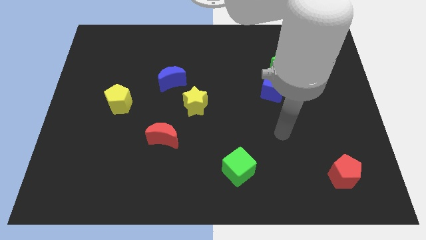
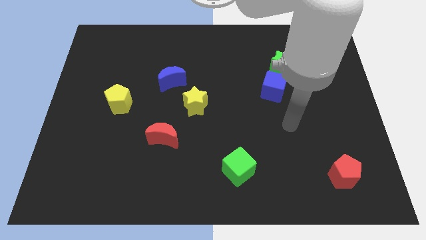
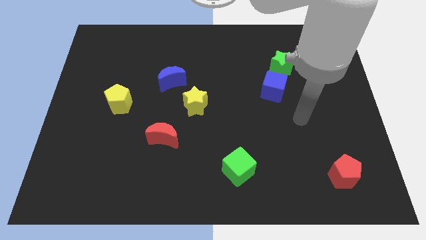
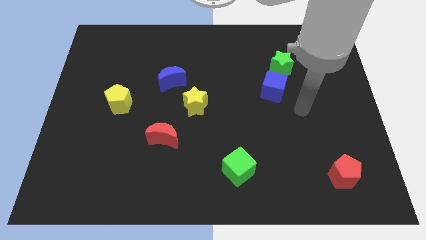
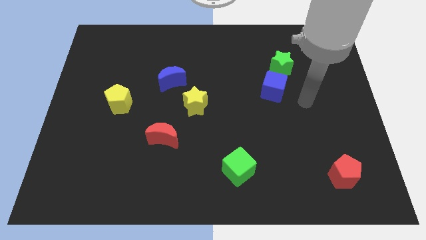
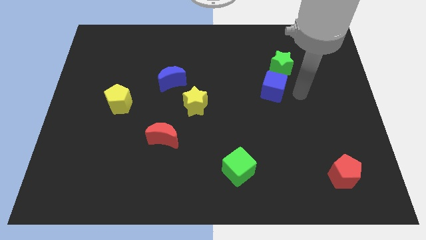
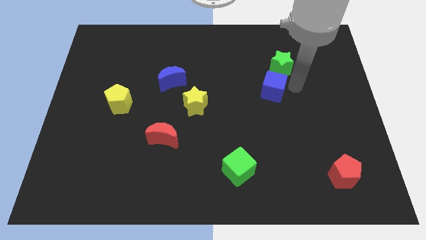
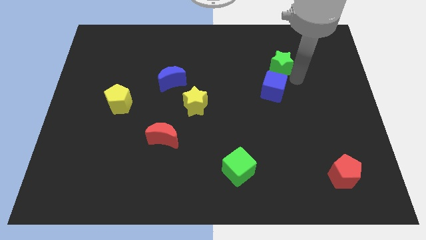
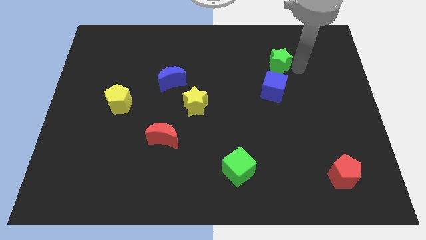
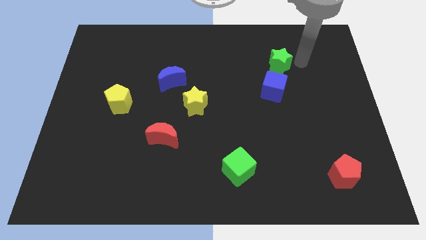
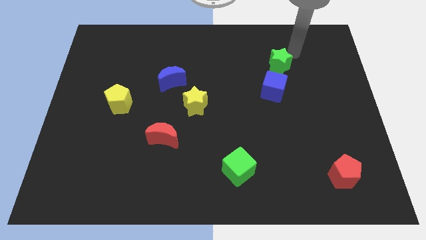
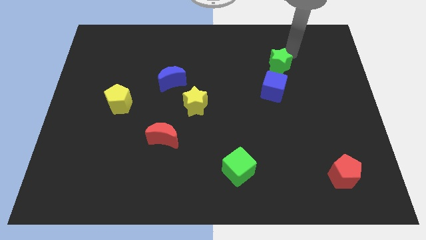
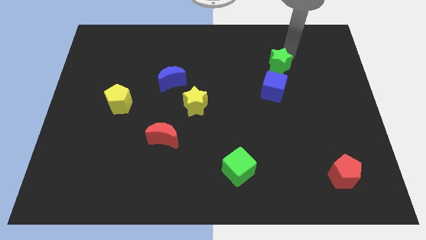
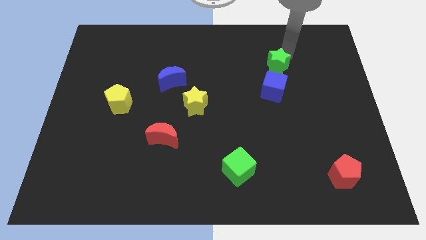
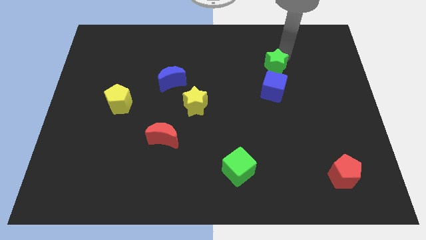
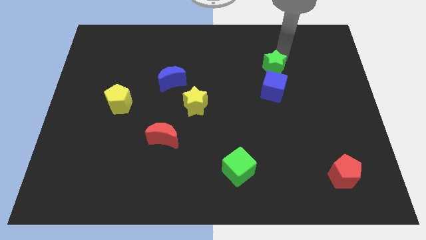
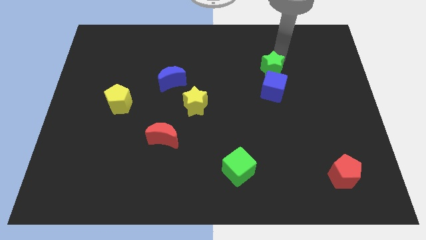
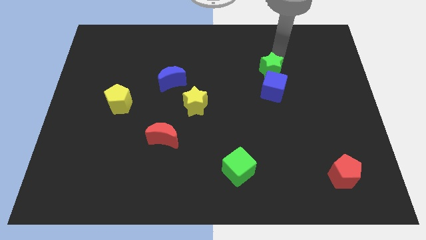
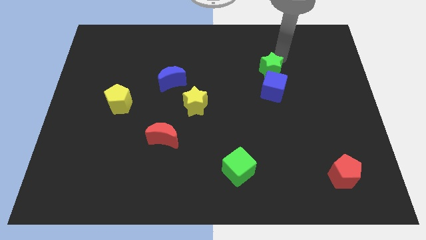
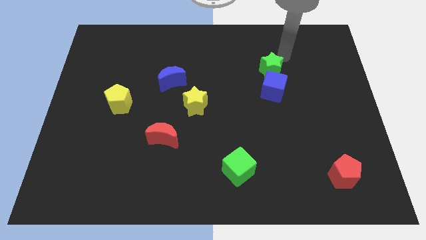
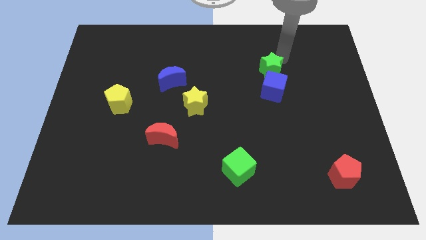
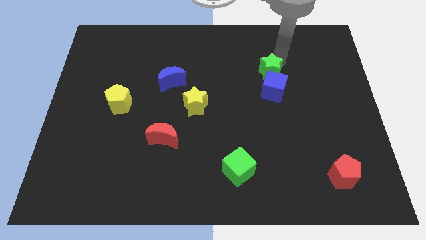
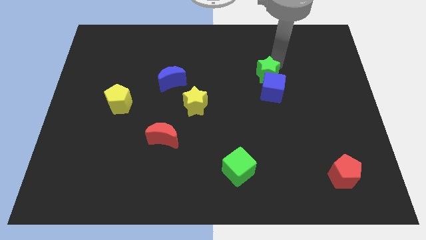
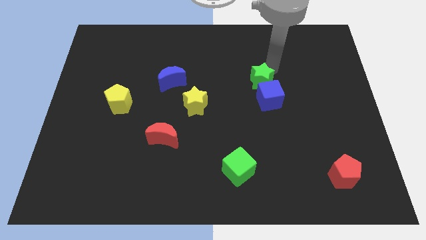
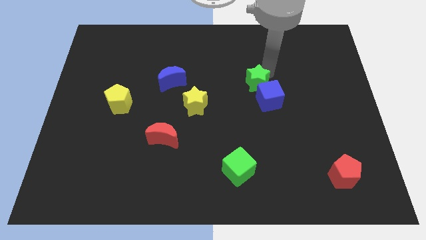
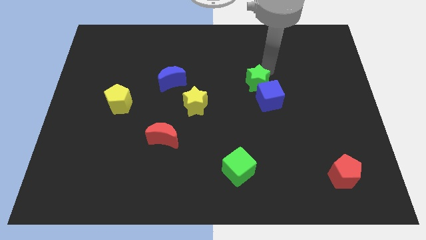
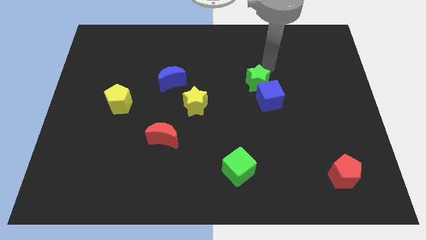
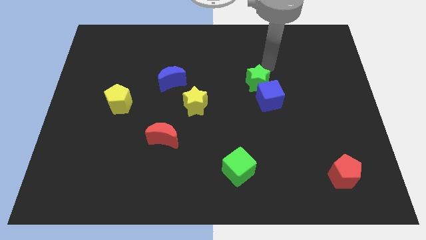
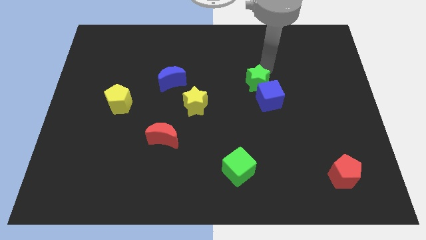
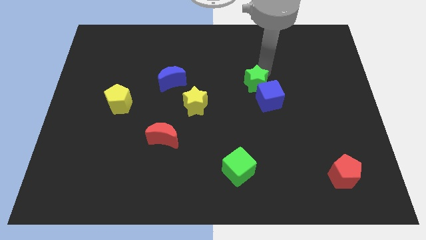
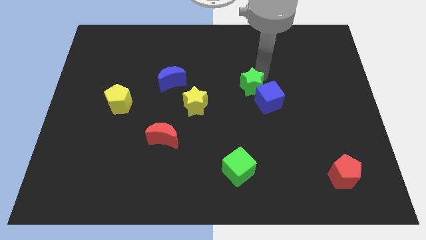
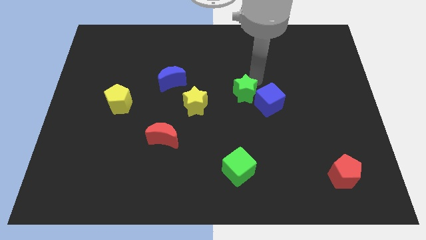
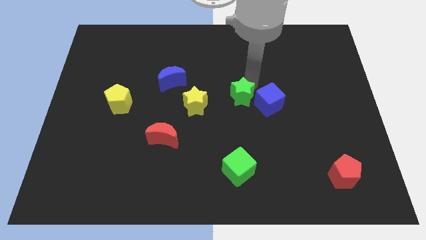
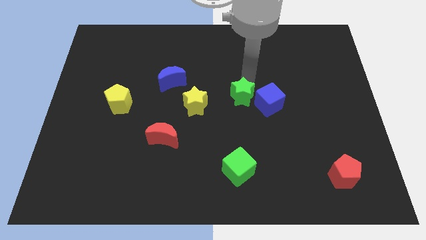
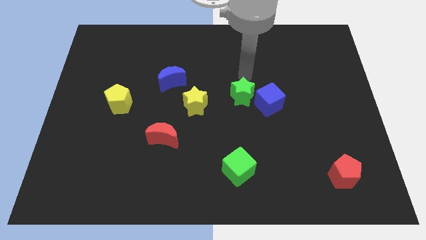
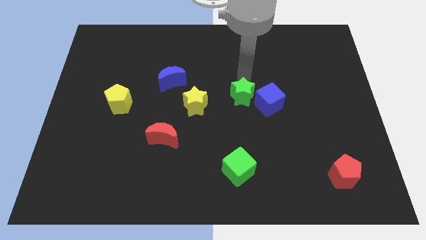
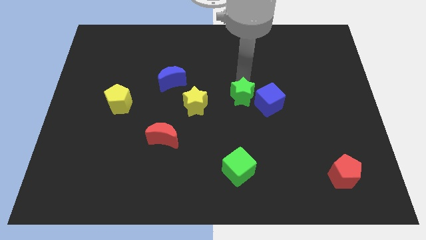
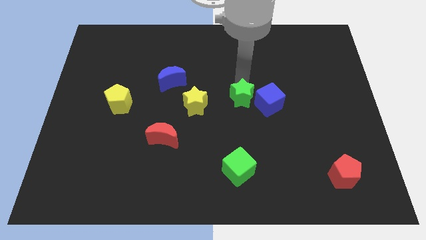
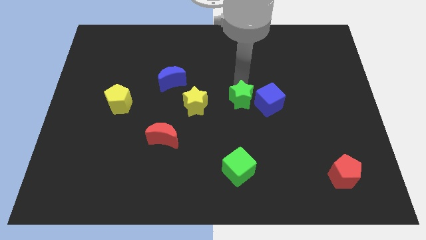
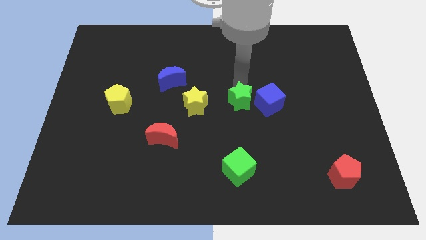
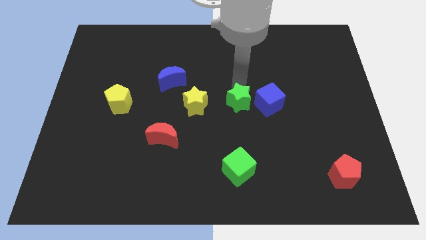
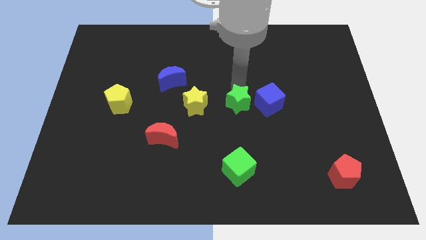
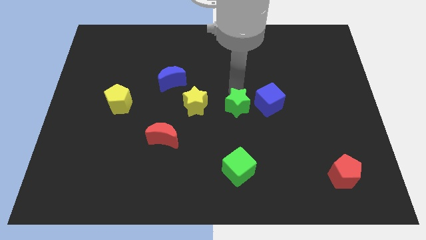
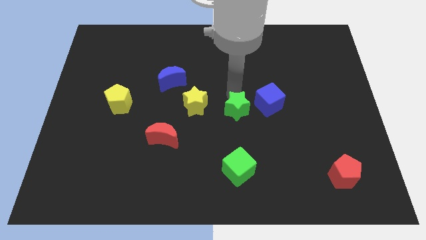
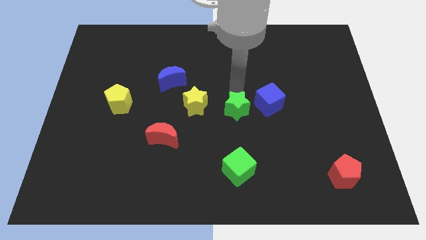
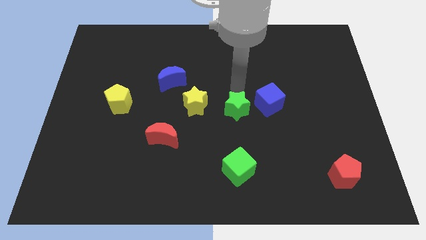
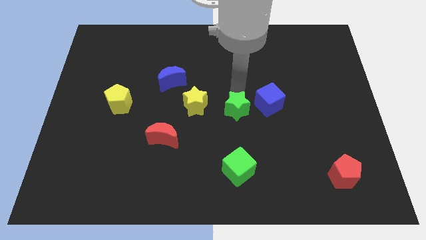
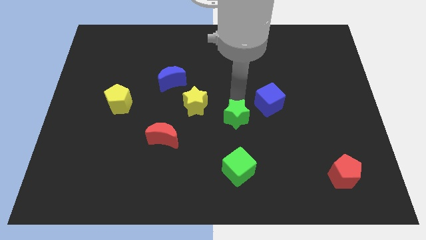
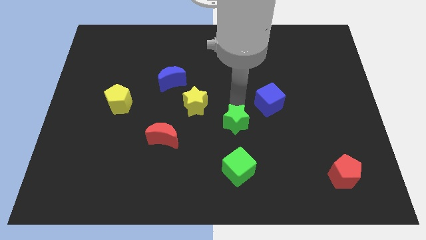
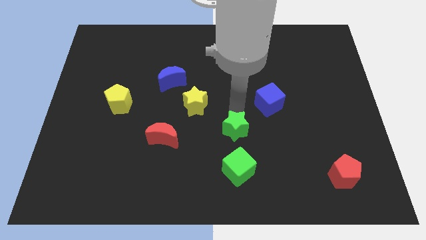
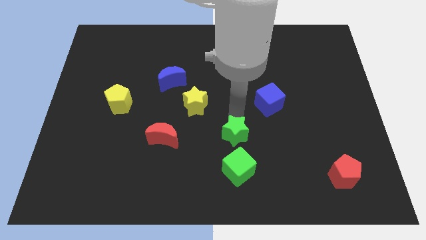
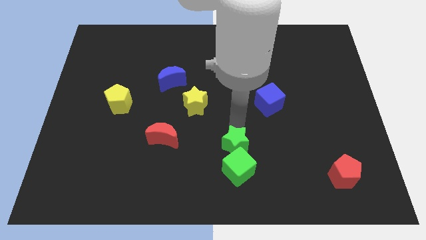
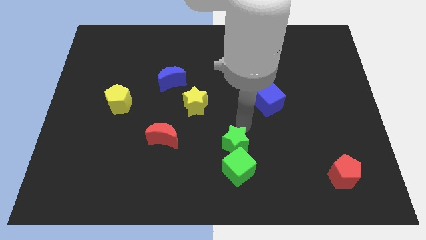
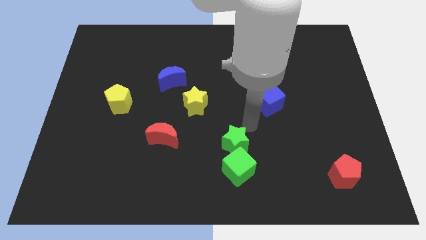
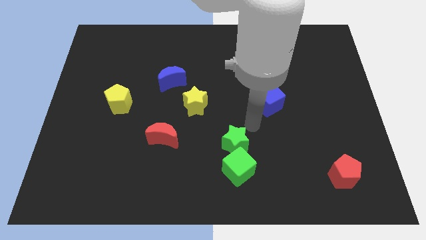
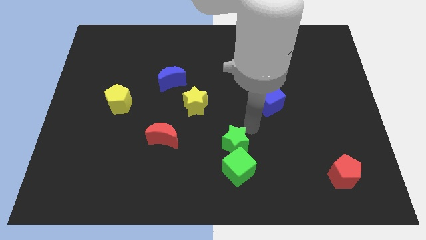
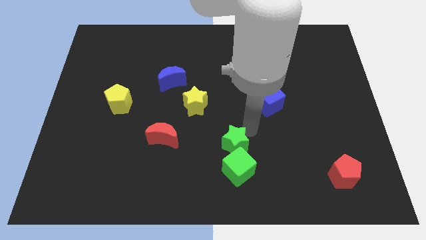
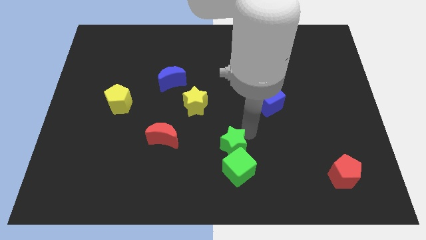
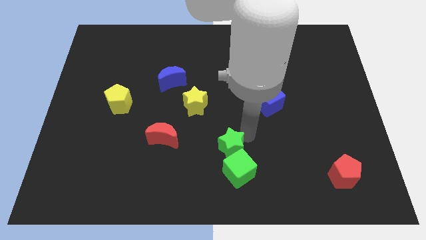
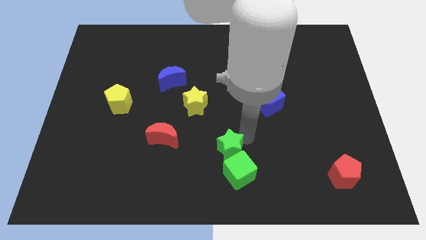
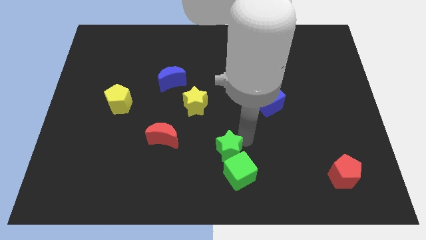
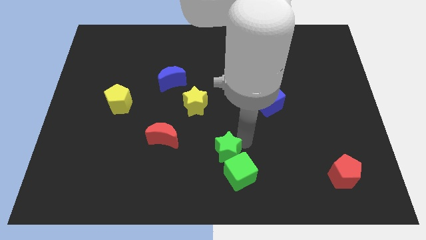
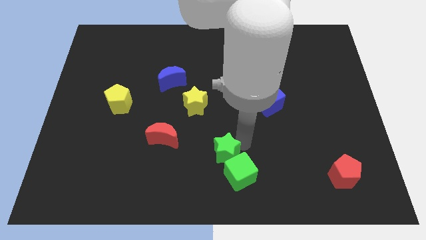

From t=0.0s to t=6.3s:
put the green star to the bottom side

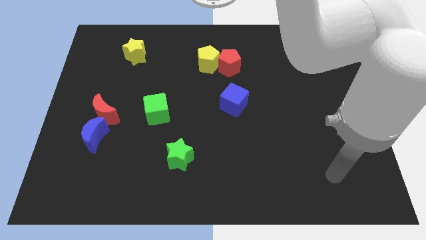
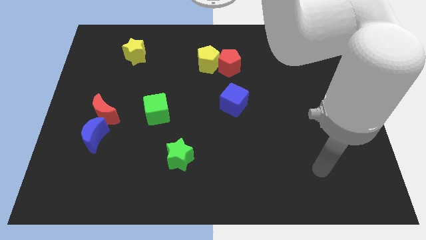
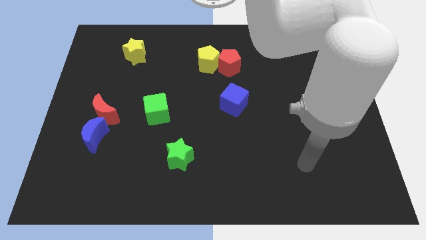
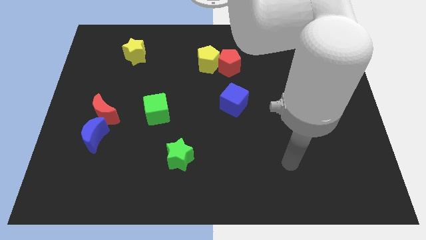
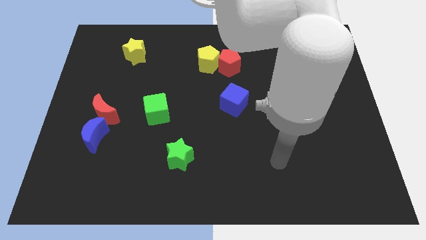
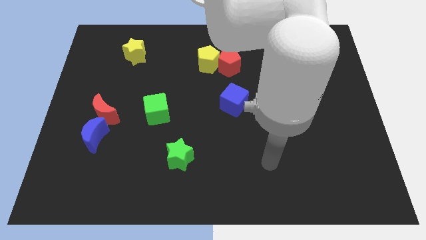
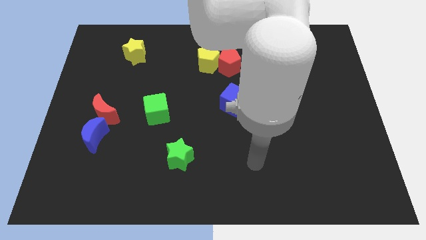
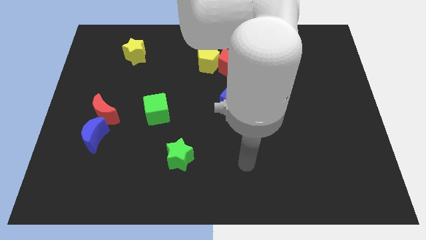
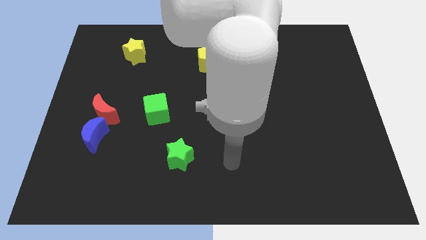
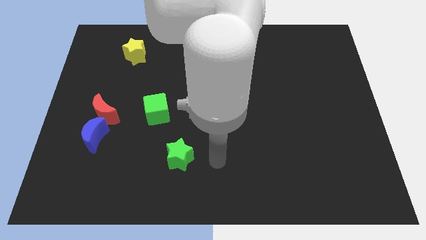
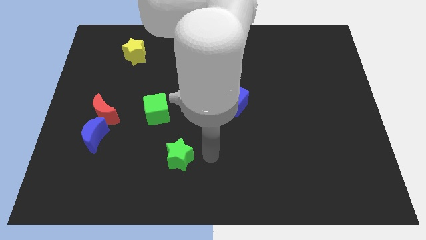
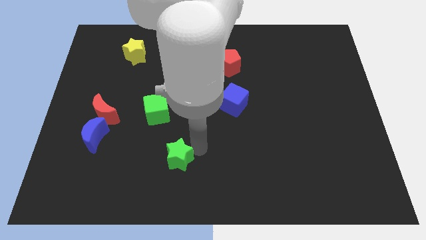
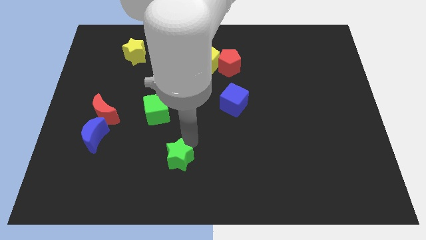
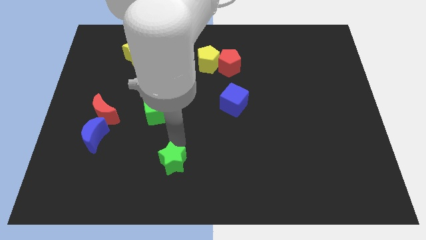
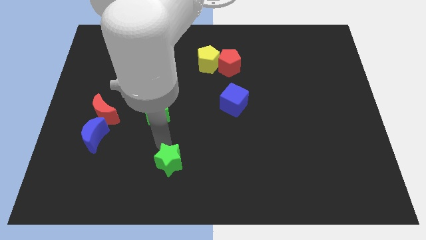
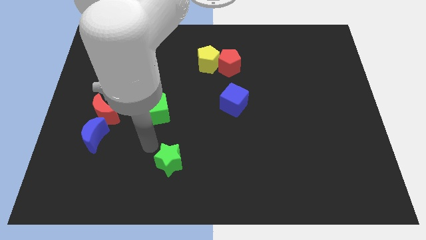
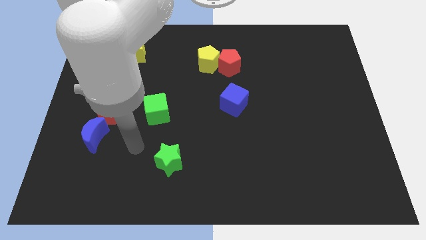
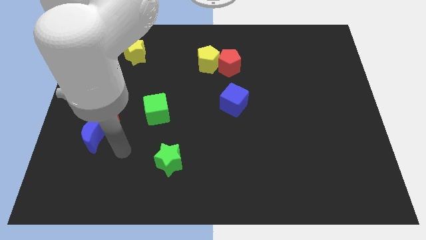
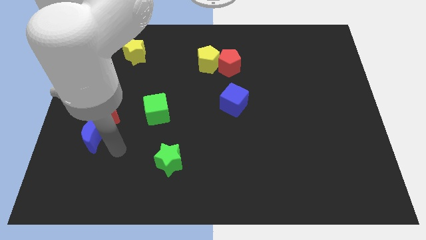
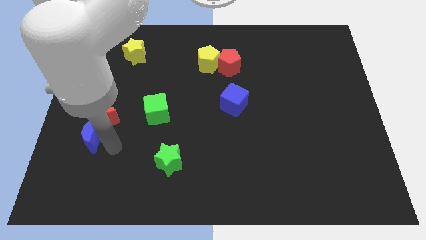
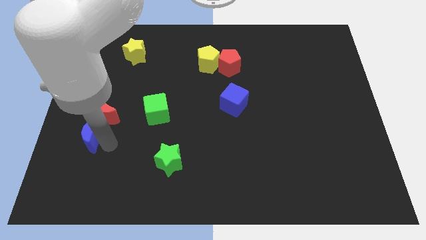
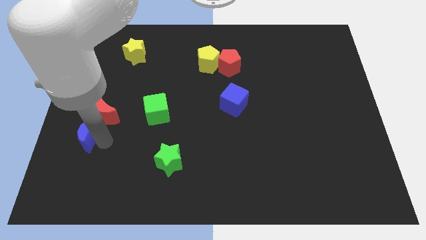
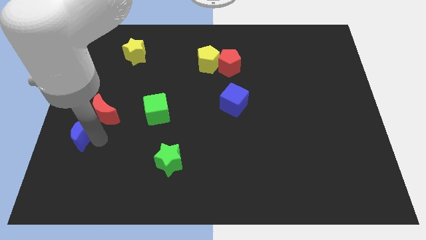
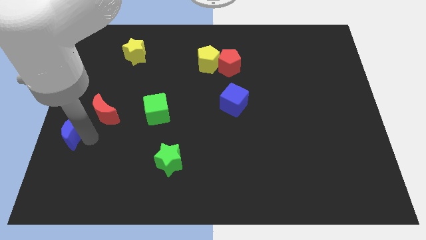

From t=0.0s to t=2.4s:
move the blue moon to the center left
